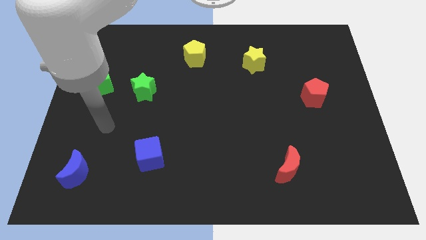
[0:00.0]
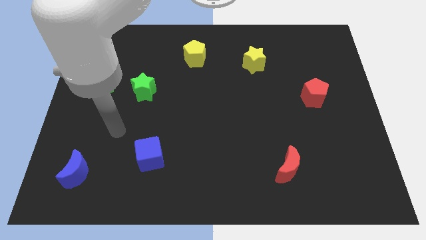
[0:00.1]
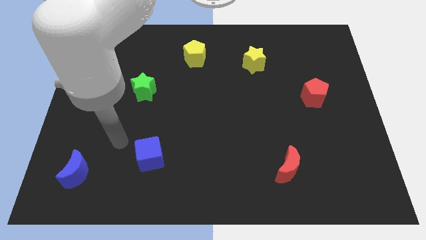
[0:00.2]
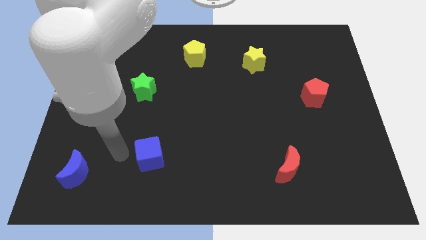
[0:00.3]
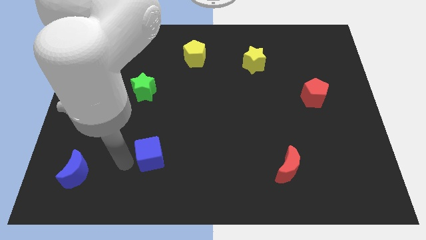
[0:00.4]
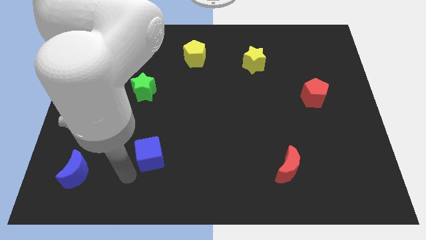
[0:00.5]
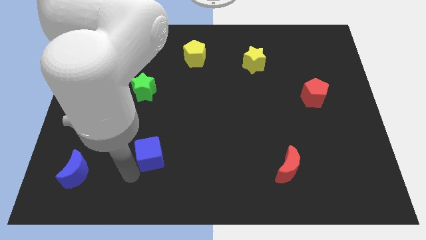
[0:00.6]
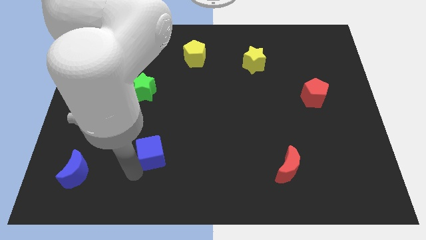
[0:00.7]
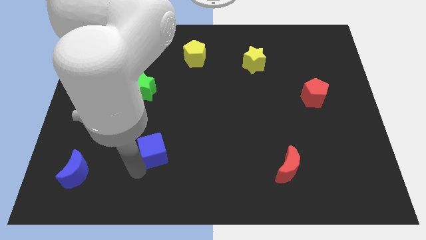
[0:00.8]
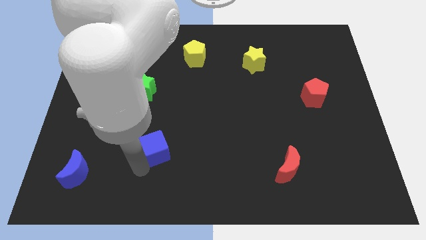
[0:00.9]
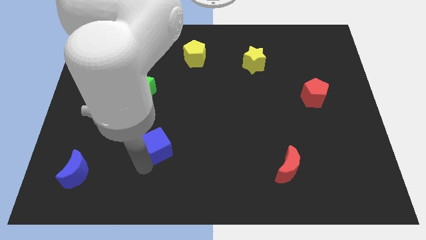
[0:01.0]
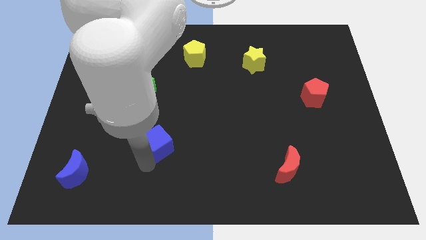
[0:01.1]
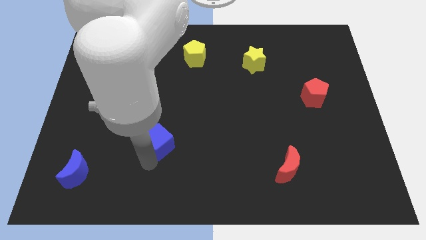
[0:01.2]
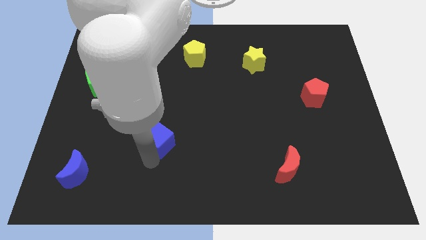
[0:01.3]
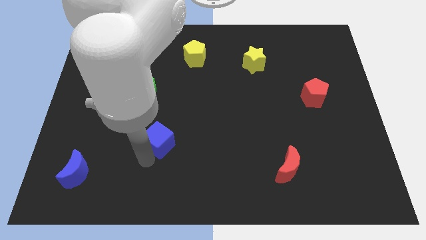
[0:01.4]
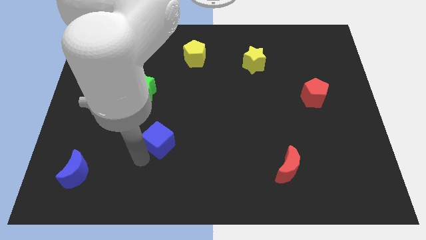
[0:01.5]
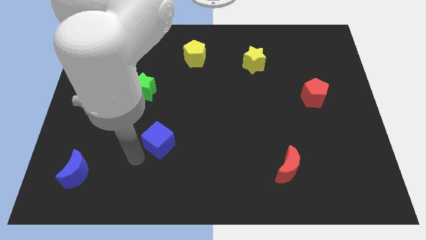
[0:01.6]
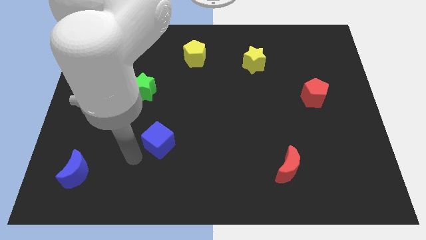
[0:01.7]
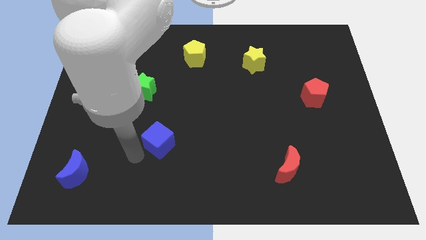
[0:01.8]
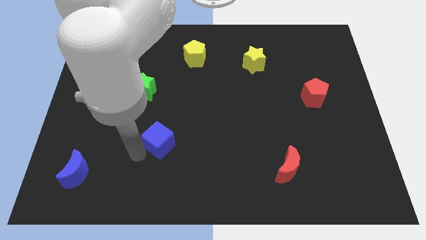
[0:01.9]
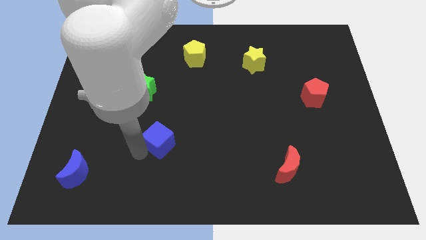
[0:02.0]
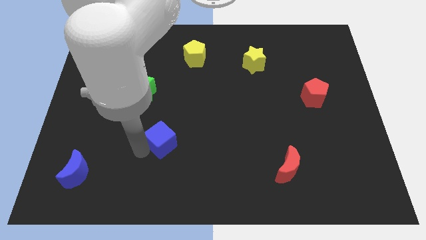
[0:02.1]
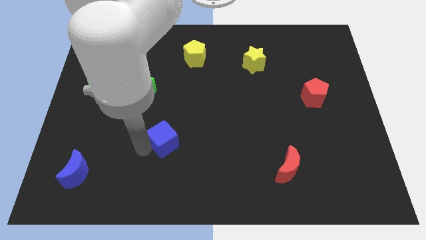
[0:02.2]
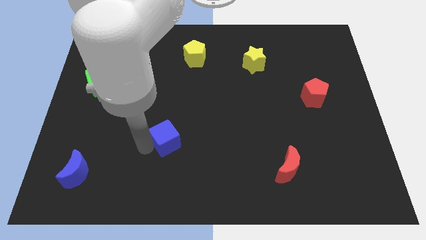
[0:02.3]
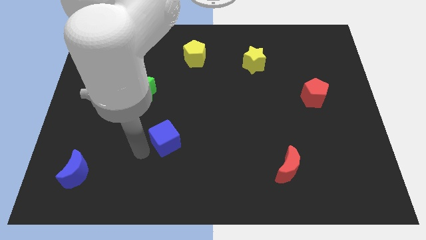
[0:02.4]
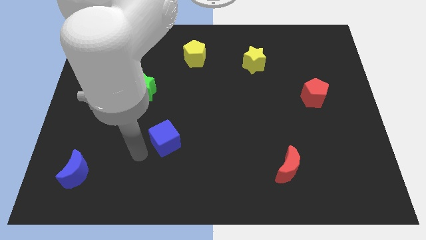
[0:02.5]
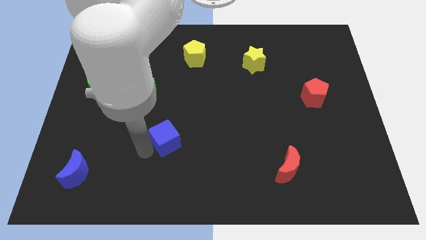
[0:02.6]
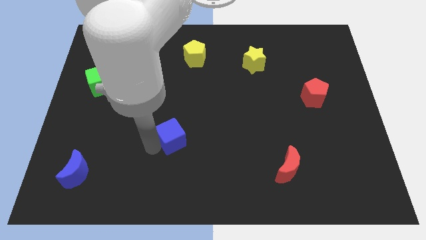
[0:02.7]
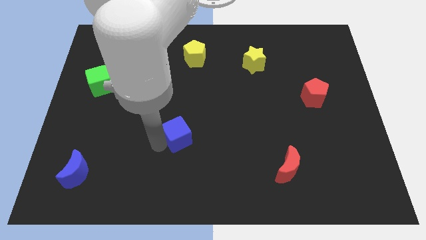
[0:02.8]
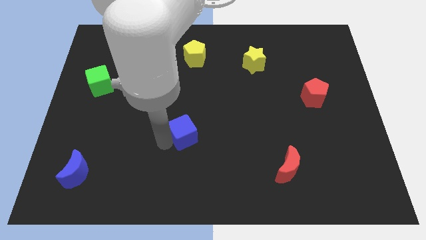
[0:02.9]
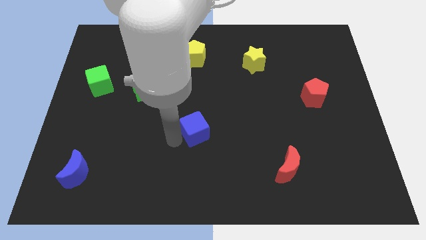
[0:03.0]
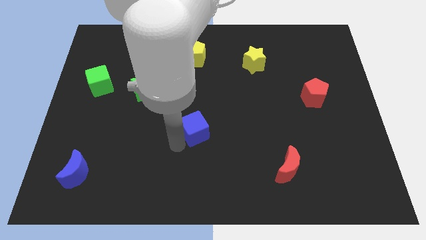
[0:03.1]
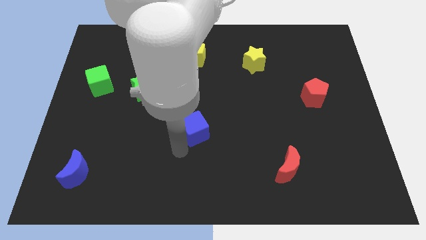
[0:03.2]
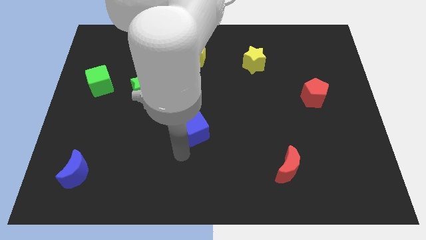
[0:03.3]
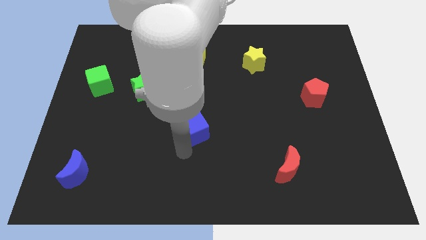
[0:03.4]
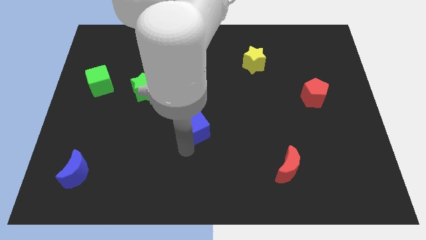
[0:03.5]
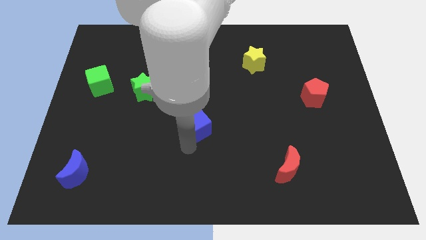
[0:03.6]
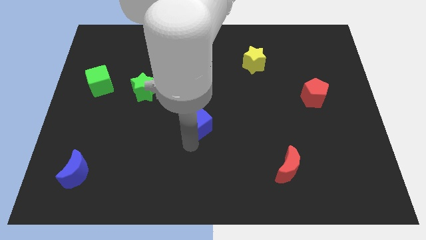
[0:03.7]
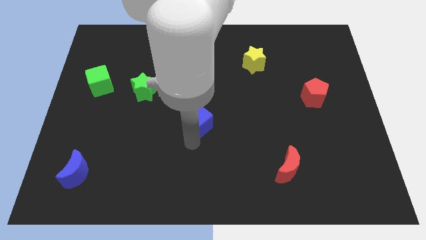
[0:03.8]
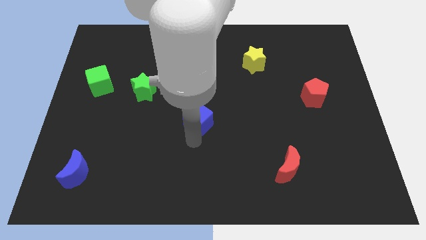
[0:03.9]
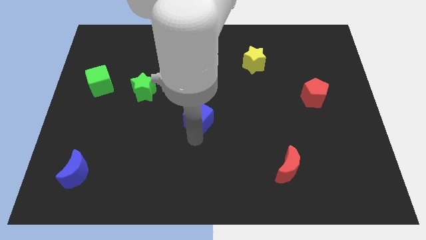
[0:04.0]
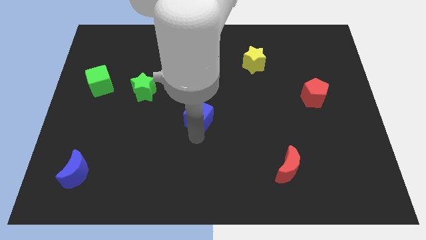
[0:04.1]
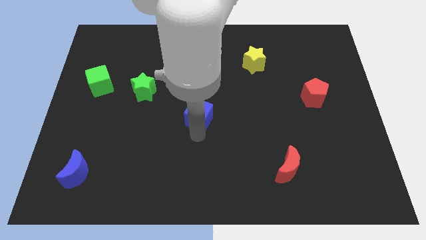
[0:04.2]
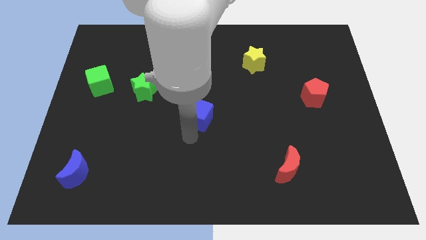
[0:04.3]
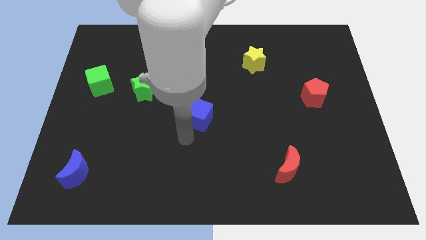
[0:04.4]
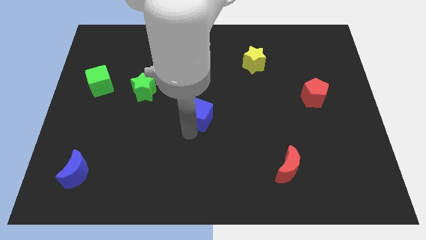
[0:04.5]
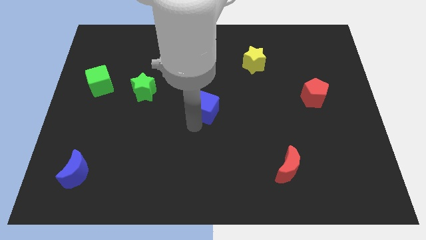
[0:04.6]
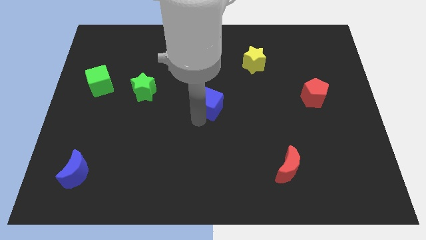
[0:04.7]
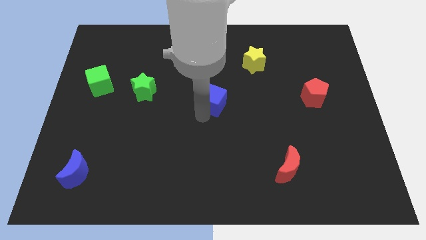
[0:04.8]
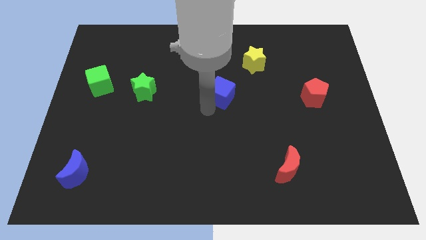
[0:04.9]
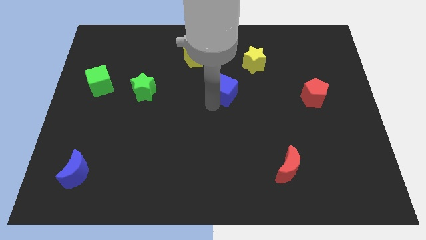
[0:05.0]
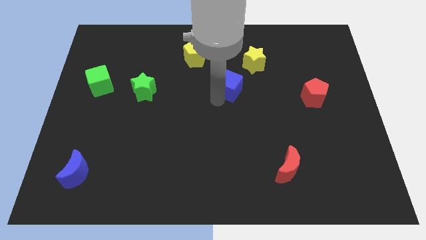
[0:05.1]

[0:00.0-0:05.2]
move the blue cube to the bottom left side of the yellow star

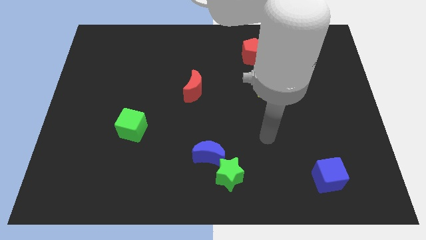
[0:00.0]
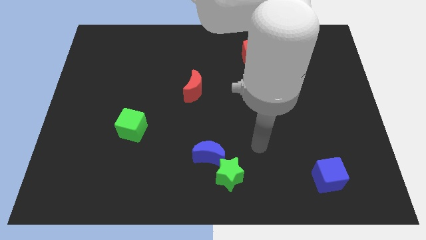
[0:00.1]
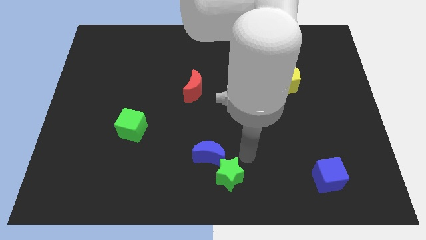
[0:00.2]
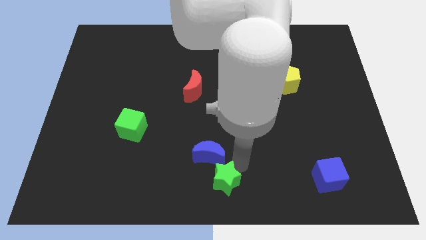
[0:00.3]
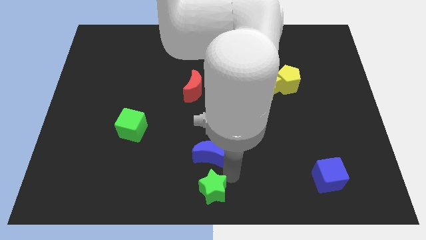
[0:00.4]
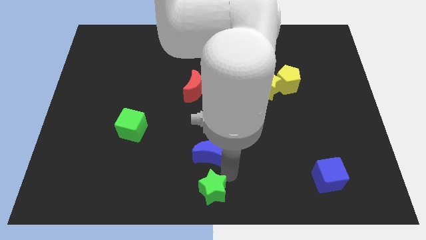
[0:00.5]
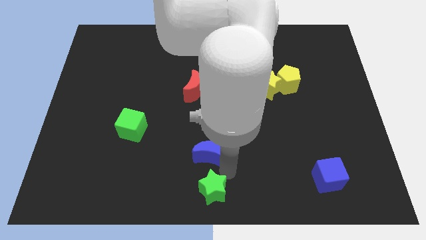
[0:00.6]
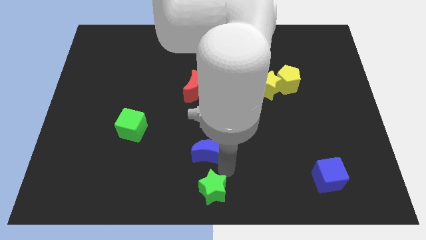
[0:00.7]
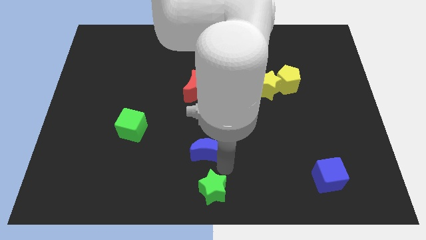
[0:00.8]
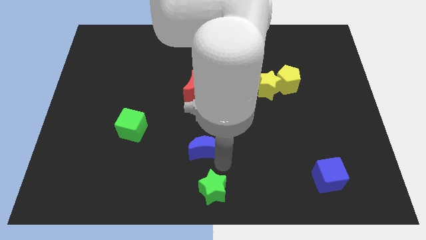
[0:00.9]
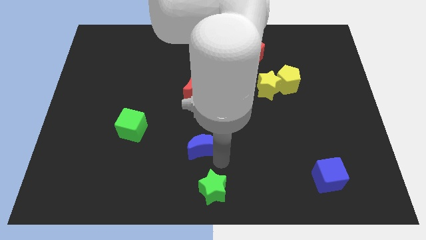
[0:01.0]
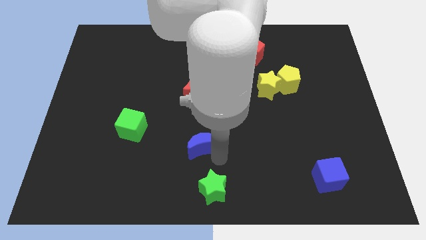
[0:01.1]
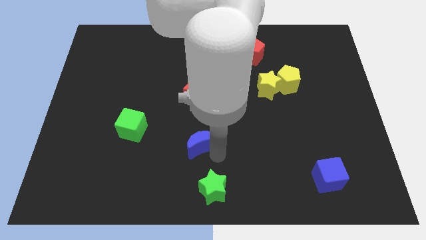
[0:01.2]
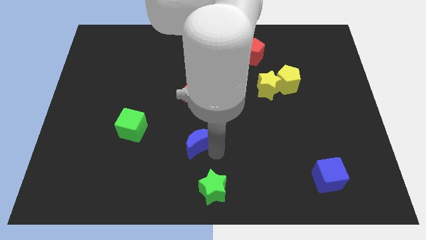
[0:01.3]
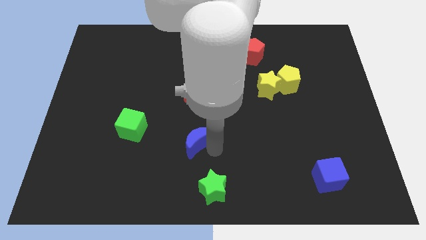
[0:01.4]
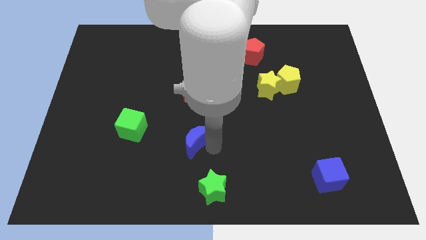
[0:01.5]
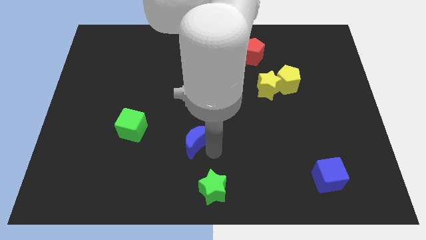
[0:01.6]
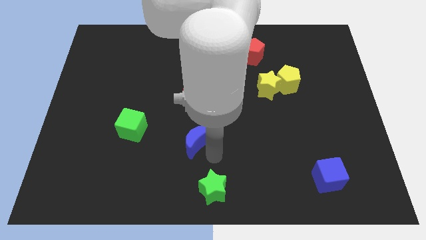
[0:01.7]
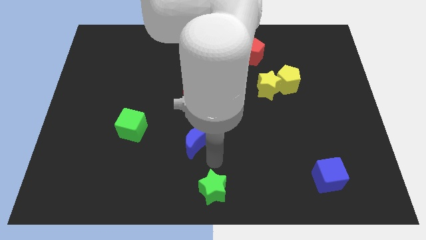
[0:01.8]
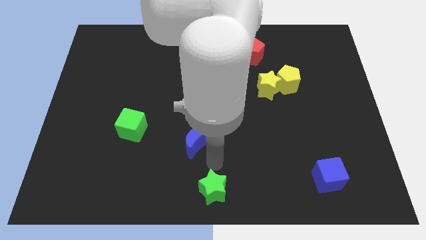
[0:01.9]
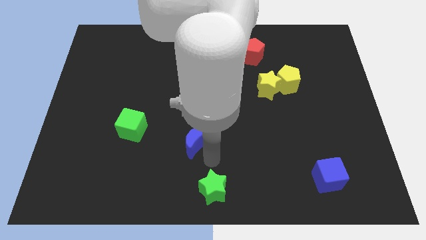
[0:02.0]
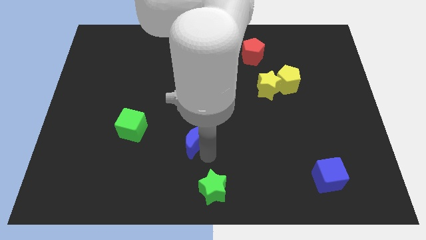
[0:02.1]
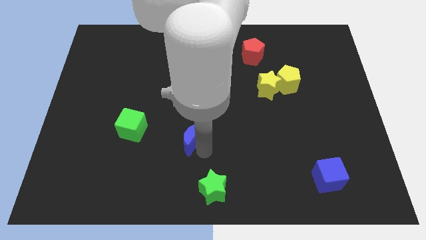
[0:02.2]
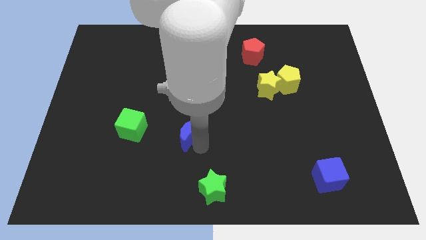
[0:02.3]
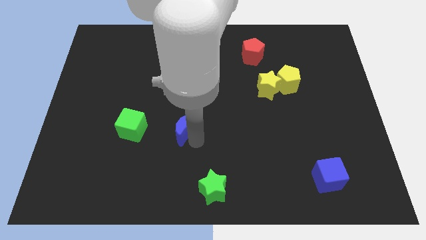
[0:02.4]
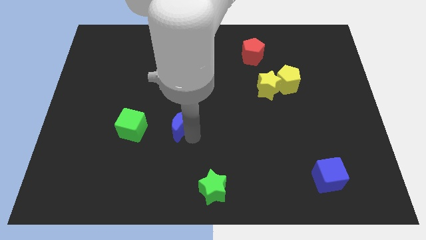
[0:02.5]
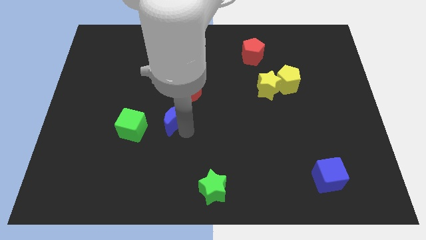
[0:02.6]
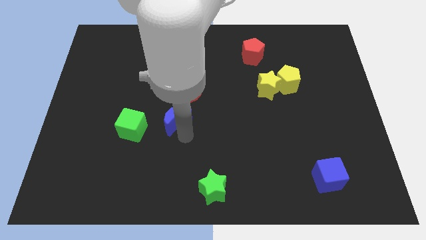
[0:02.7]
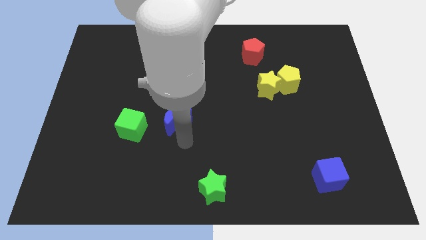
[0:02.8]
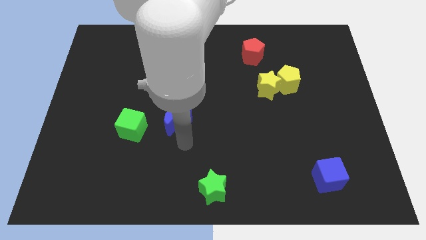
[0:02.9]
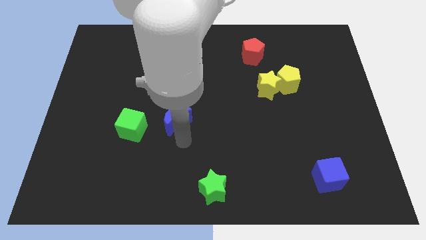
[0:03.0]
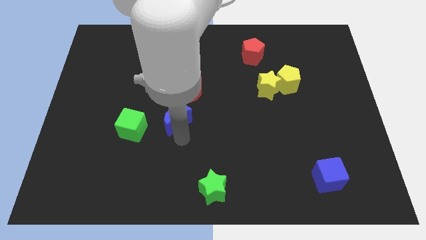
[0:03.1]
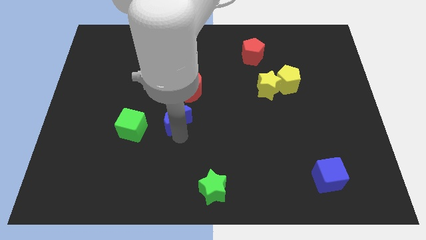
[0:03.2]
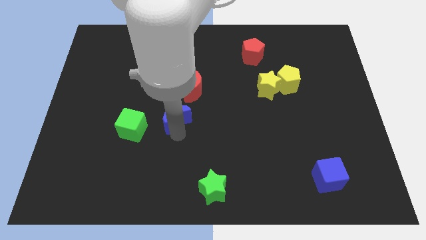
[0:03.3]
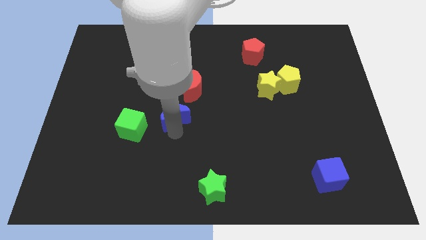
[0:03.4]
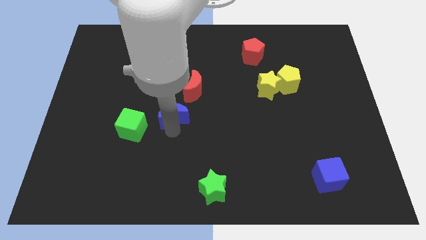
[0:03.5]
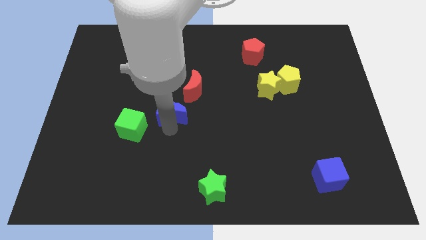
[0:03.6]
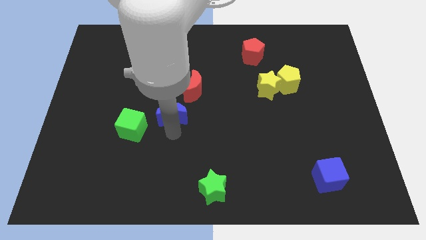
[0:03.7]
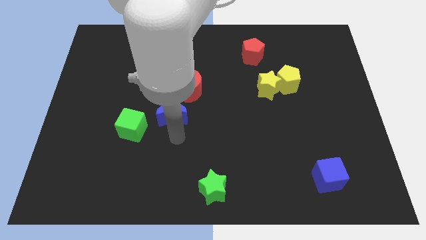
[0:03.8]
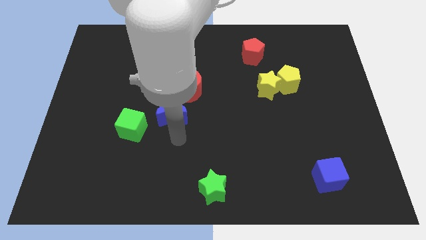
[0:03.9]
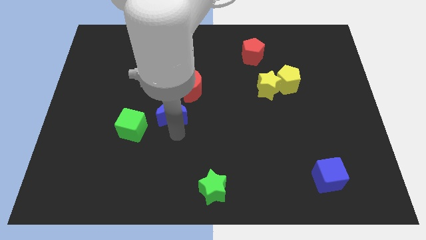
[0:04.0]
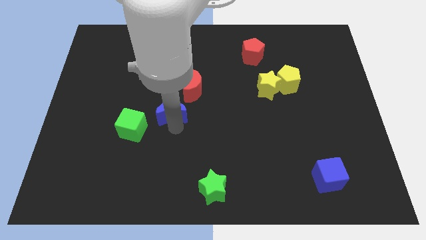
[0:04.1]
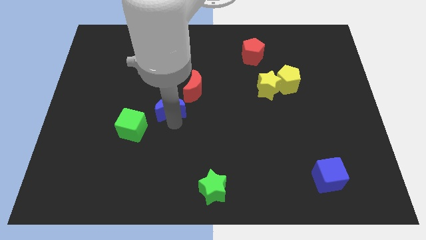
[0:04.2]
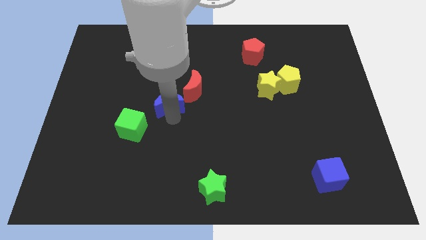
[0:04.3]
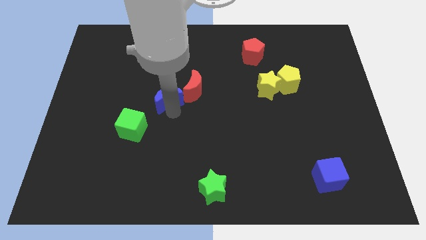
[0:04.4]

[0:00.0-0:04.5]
push the blue moon just left of the red moon
